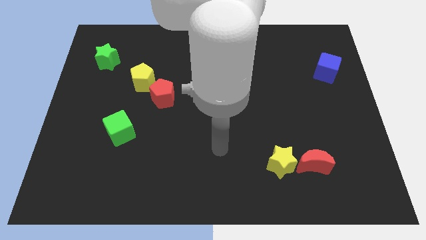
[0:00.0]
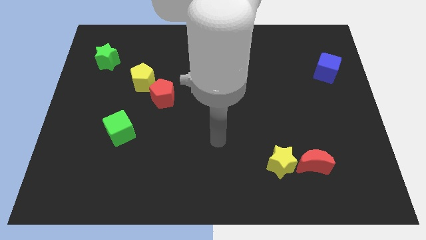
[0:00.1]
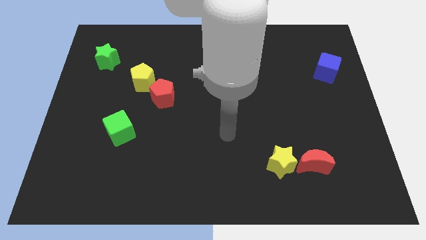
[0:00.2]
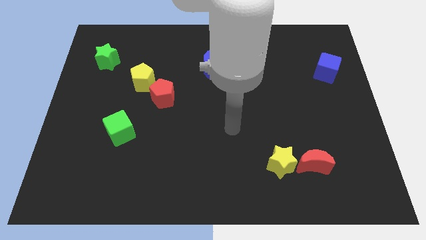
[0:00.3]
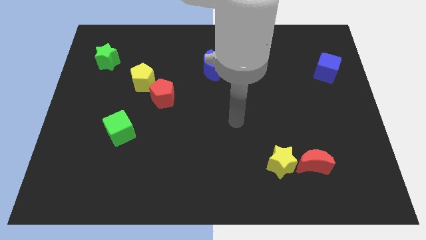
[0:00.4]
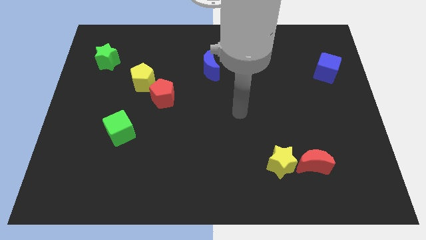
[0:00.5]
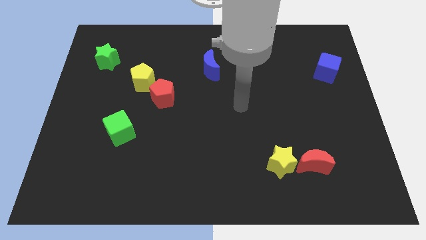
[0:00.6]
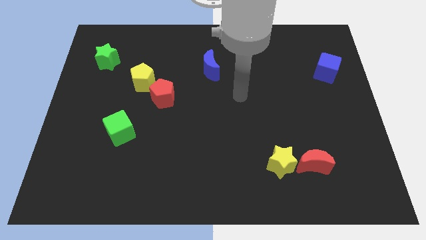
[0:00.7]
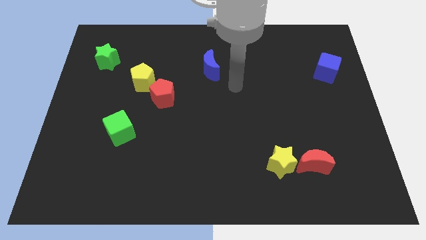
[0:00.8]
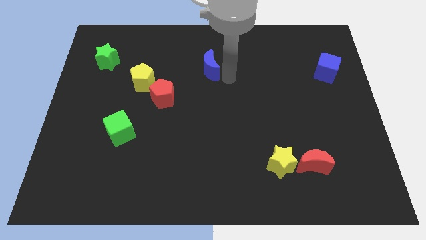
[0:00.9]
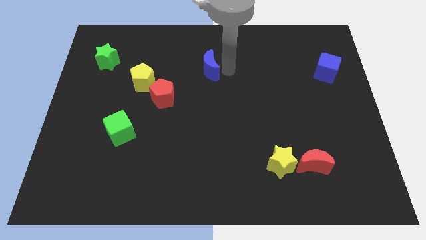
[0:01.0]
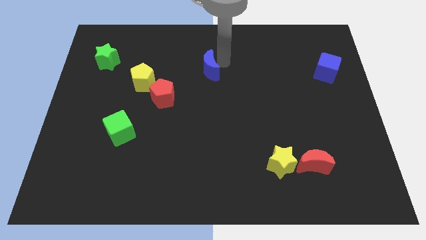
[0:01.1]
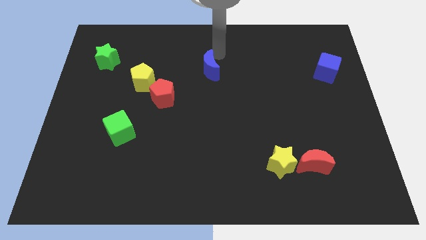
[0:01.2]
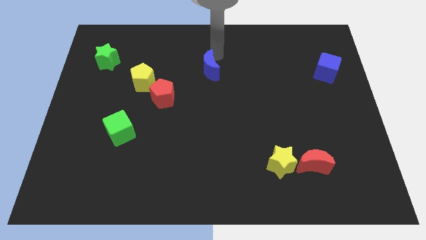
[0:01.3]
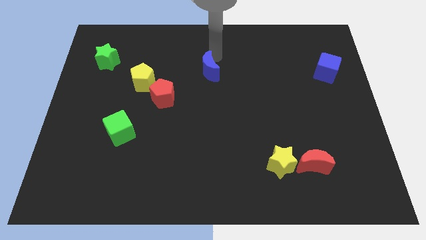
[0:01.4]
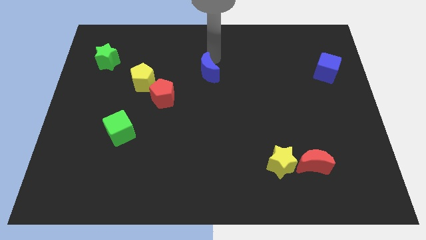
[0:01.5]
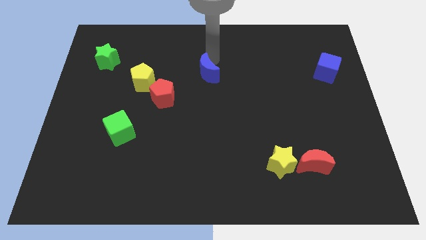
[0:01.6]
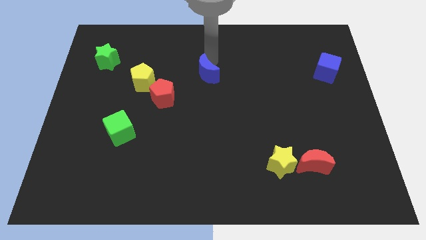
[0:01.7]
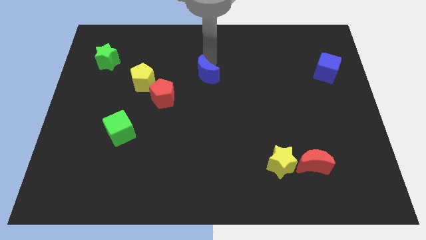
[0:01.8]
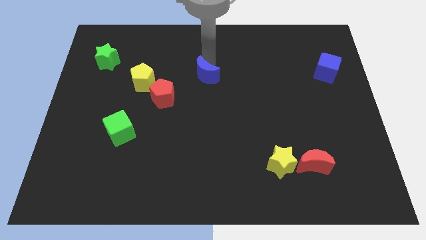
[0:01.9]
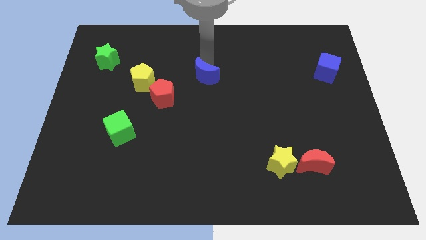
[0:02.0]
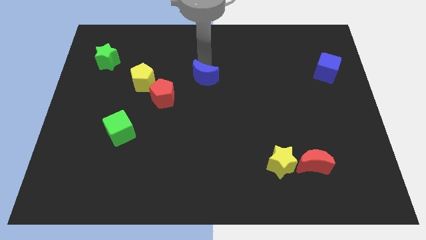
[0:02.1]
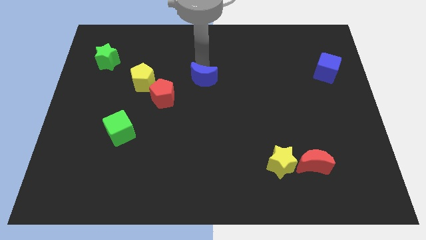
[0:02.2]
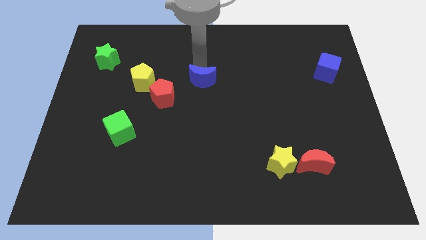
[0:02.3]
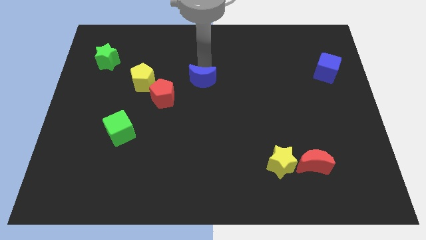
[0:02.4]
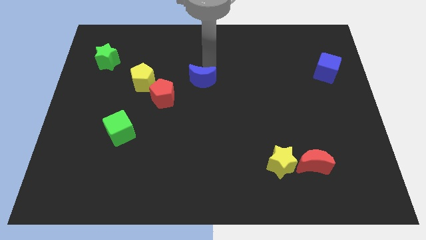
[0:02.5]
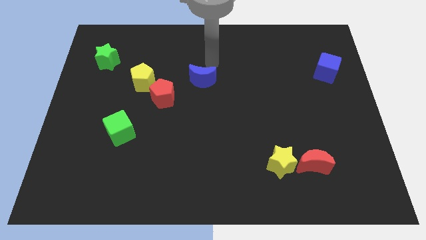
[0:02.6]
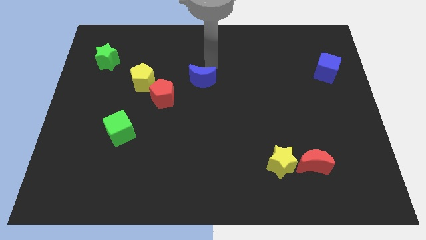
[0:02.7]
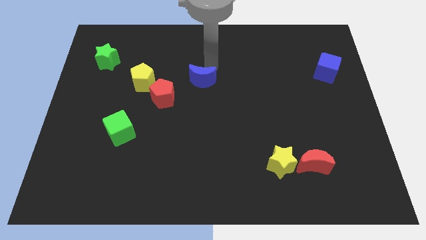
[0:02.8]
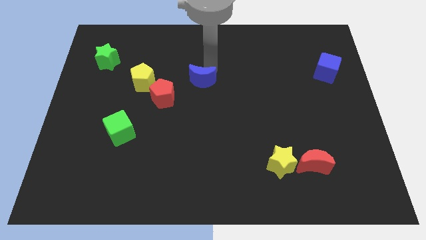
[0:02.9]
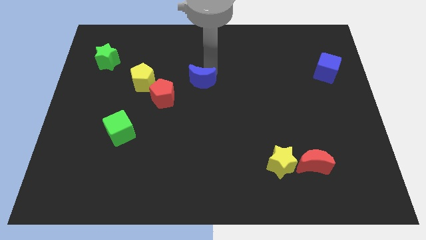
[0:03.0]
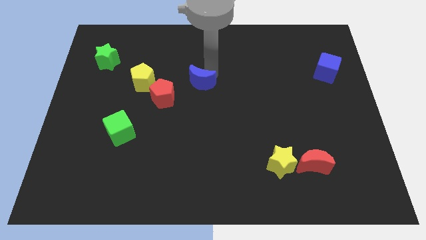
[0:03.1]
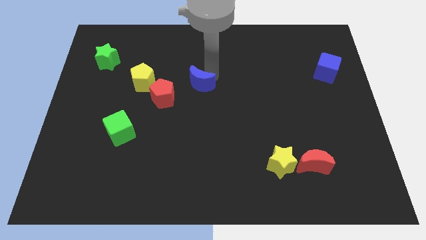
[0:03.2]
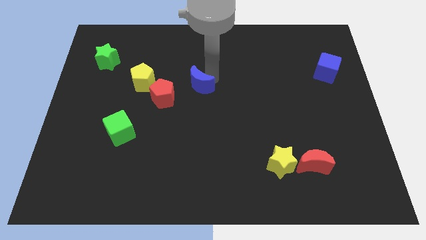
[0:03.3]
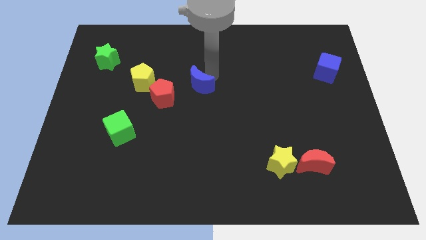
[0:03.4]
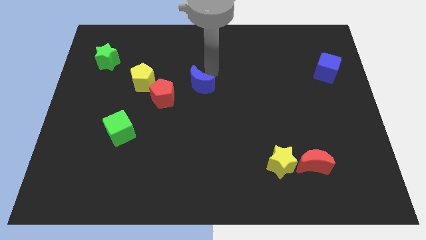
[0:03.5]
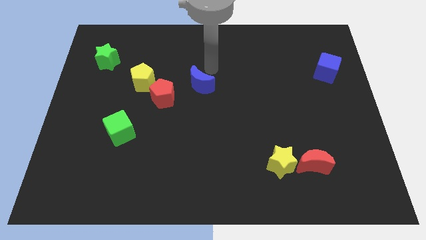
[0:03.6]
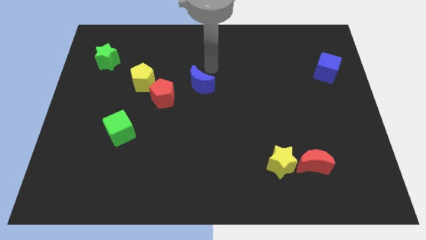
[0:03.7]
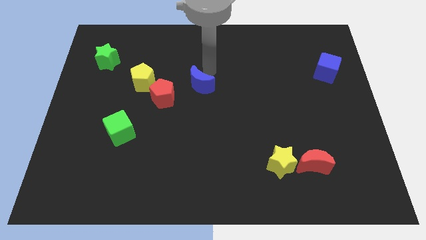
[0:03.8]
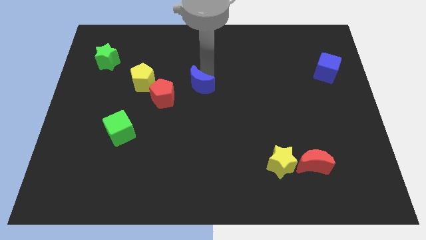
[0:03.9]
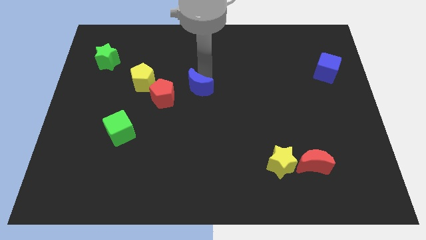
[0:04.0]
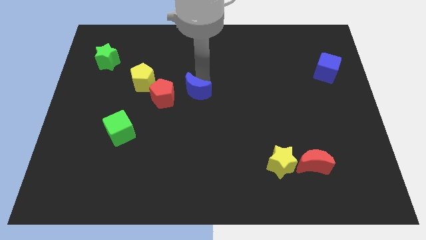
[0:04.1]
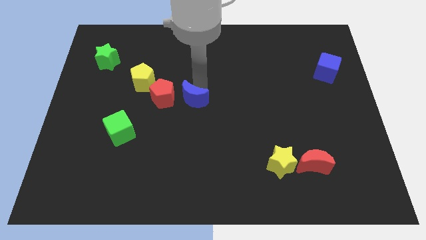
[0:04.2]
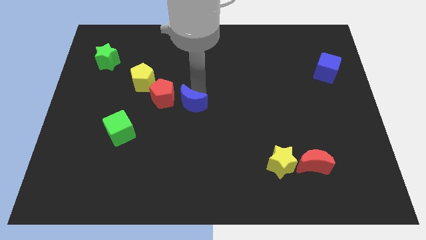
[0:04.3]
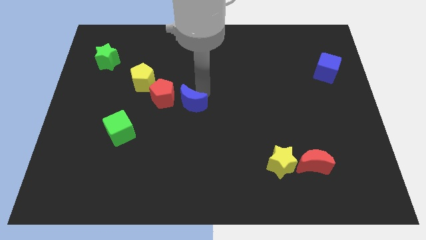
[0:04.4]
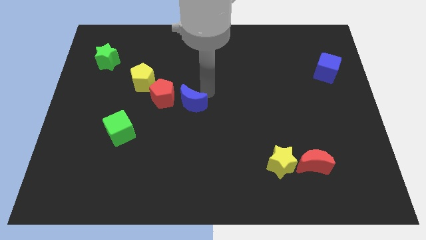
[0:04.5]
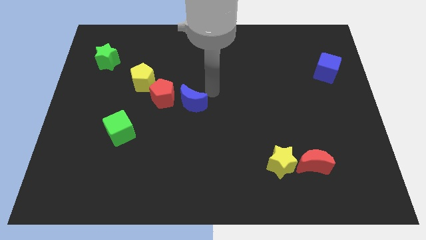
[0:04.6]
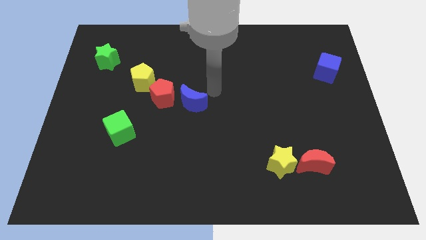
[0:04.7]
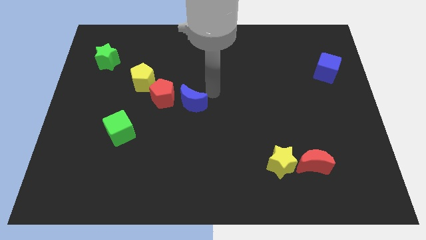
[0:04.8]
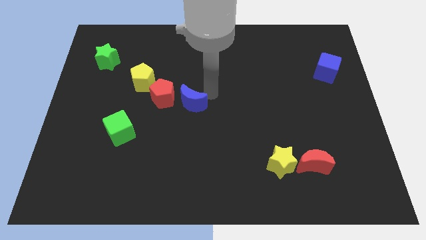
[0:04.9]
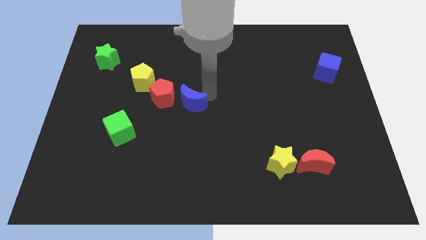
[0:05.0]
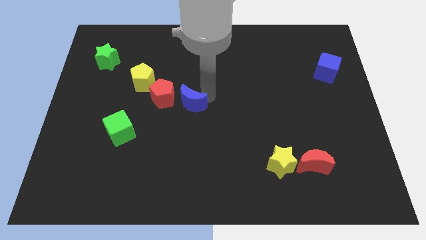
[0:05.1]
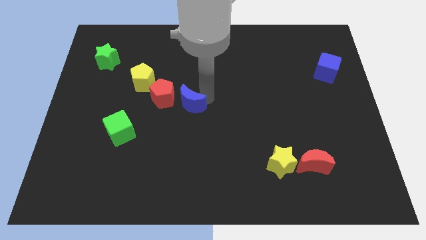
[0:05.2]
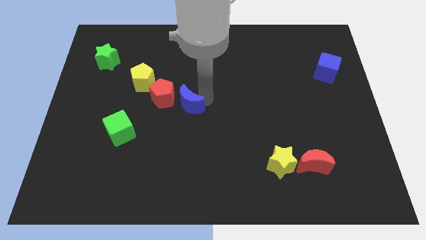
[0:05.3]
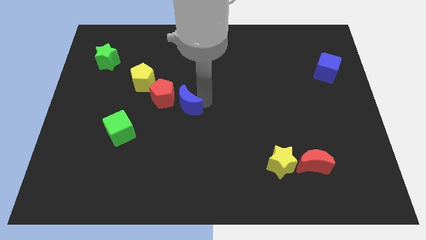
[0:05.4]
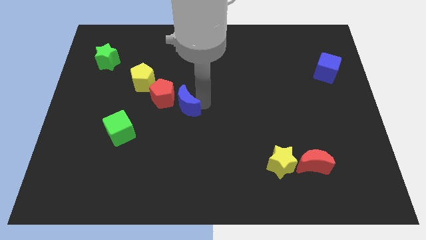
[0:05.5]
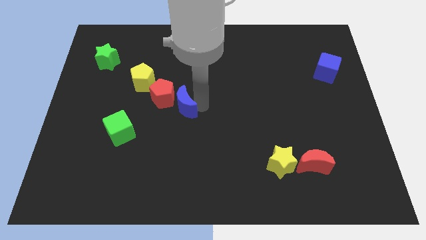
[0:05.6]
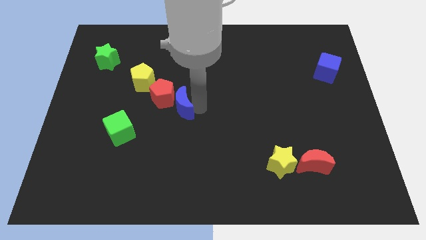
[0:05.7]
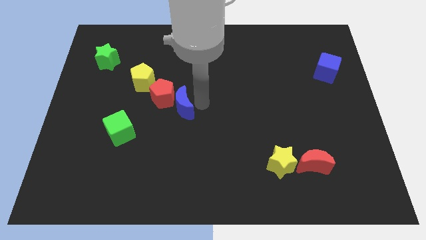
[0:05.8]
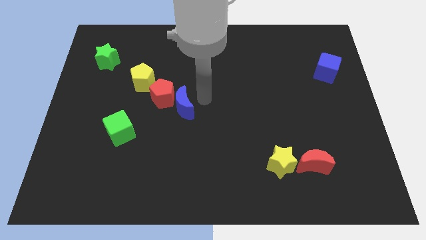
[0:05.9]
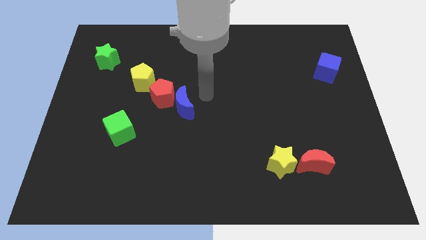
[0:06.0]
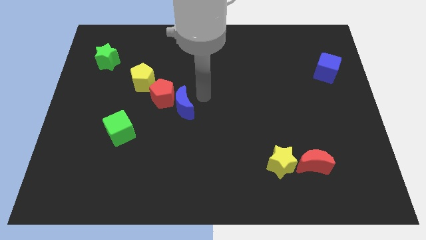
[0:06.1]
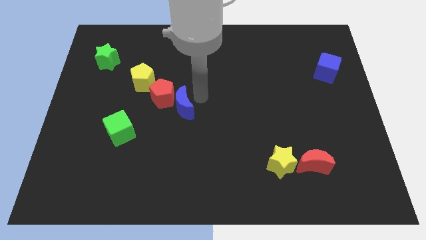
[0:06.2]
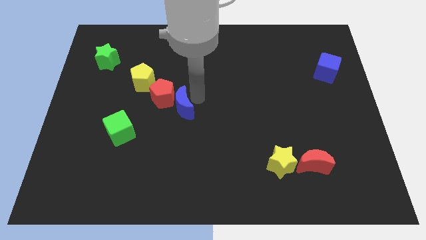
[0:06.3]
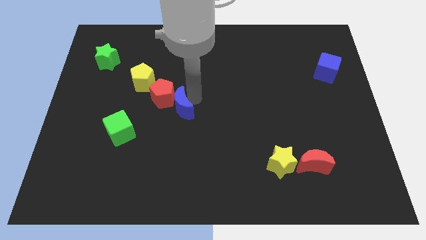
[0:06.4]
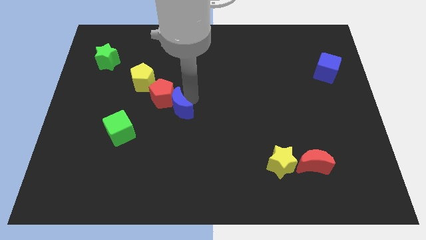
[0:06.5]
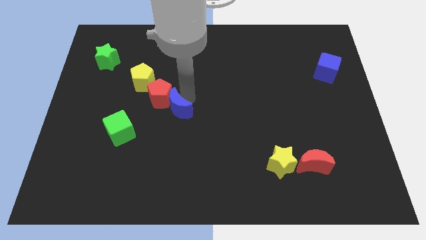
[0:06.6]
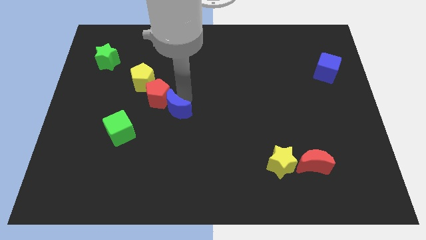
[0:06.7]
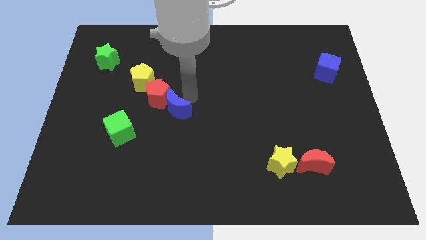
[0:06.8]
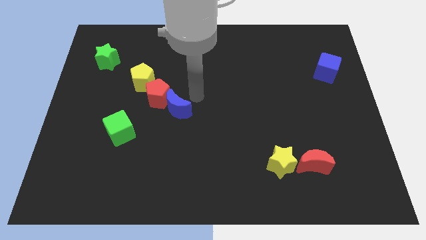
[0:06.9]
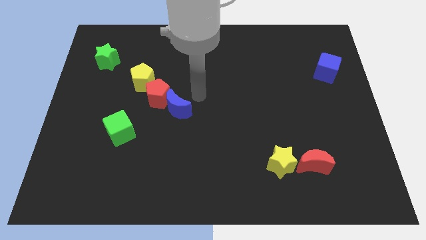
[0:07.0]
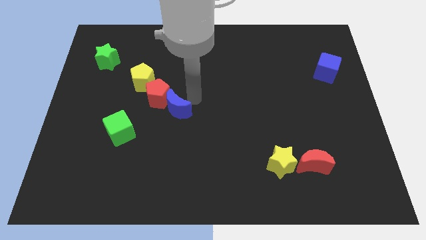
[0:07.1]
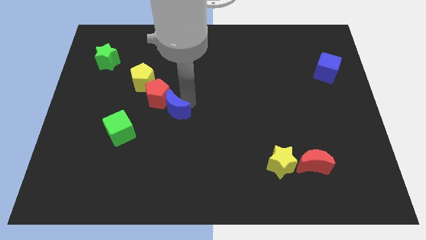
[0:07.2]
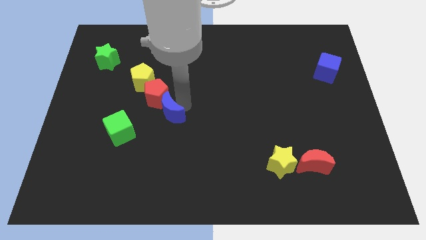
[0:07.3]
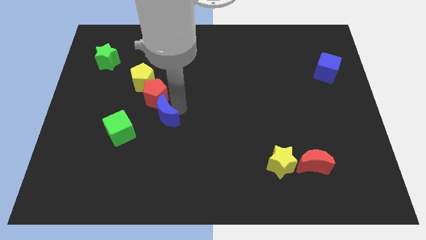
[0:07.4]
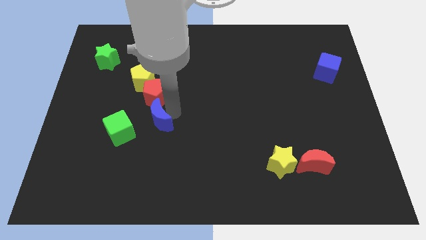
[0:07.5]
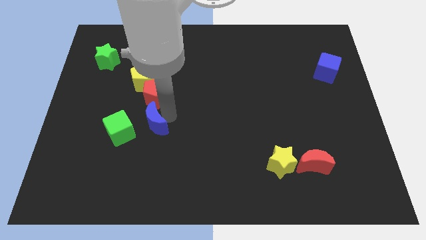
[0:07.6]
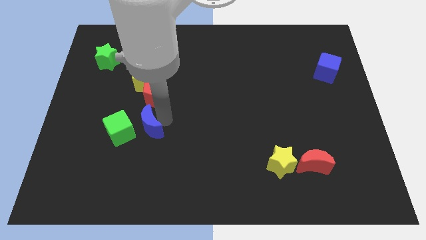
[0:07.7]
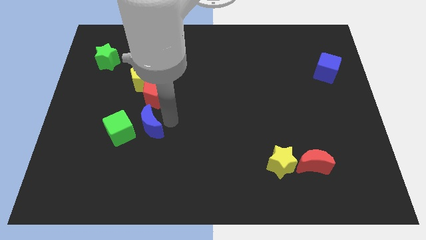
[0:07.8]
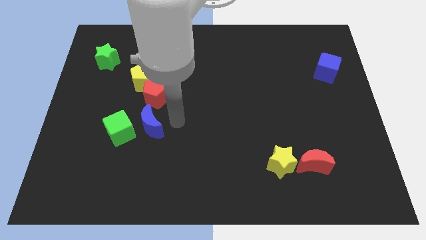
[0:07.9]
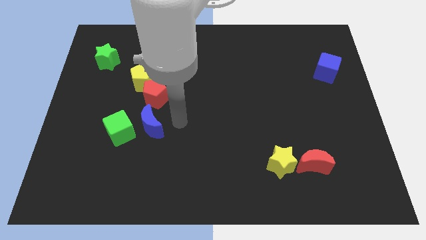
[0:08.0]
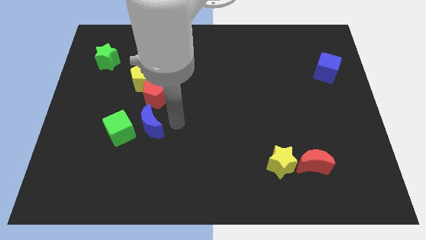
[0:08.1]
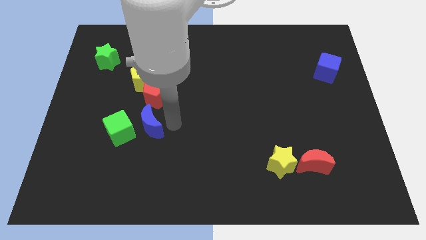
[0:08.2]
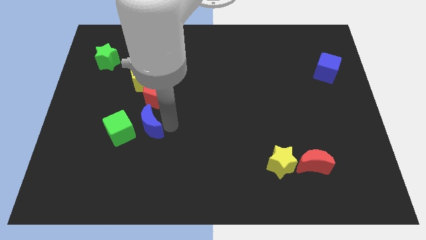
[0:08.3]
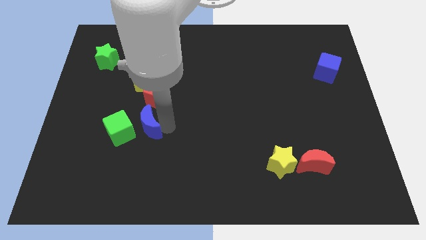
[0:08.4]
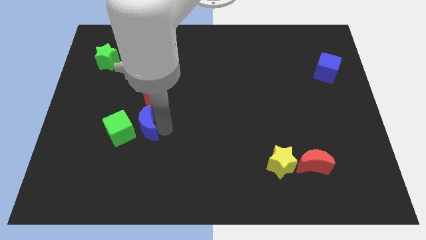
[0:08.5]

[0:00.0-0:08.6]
put the blue moon close to the green cube
